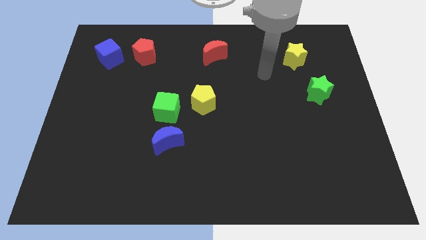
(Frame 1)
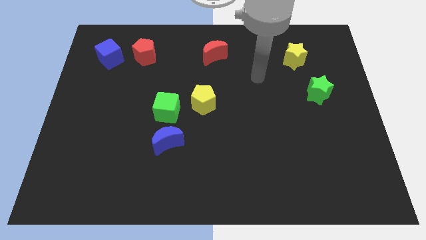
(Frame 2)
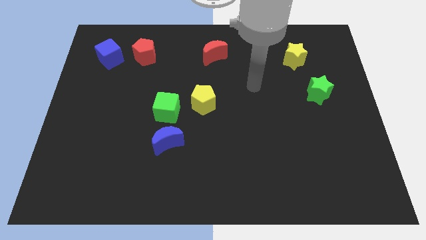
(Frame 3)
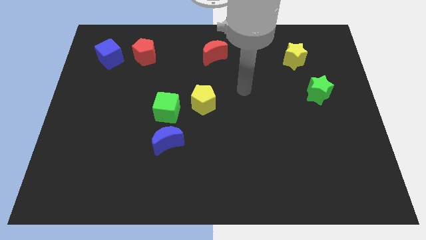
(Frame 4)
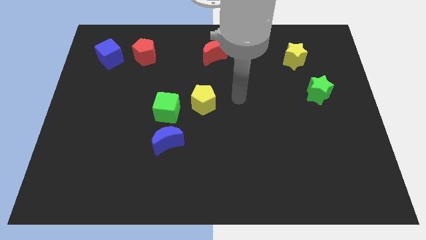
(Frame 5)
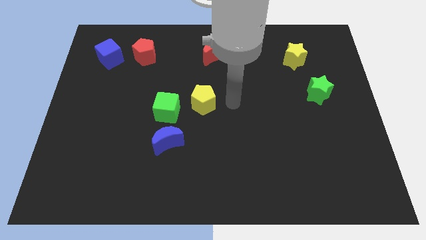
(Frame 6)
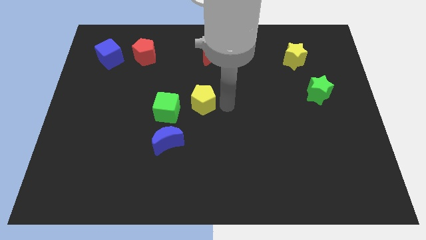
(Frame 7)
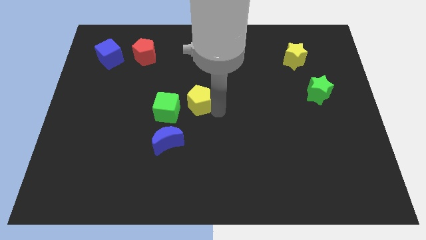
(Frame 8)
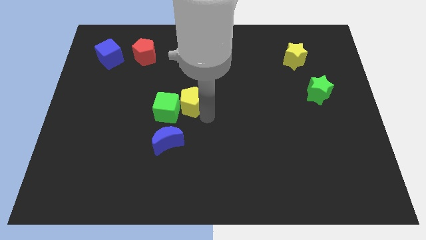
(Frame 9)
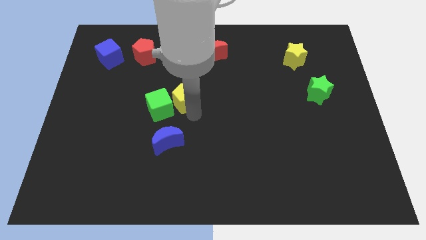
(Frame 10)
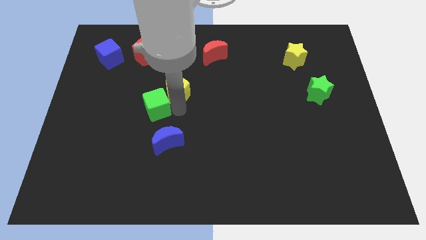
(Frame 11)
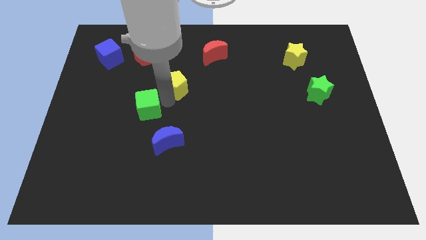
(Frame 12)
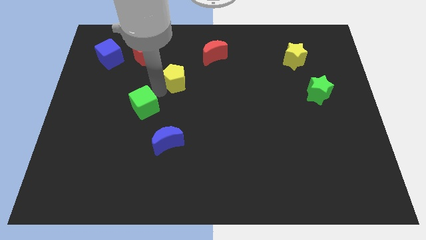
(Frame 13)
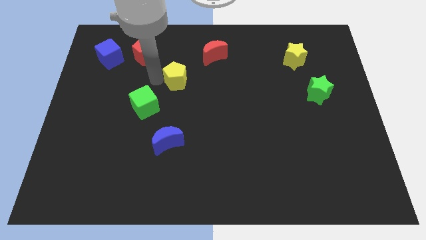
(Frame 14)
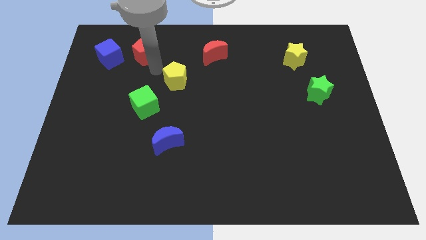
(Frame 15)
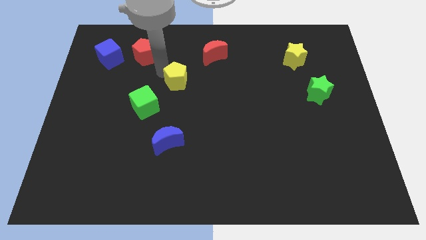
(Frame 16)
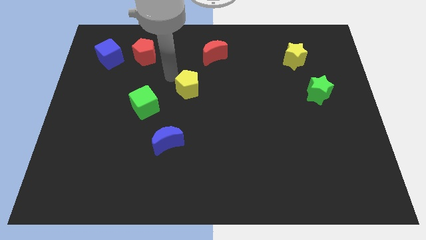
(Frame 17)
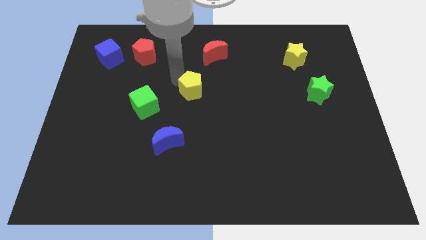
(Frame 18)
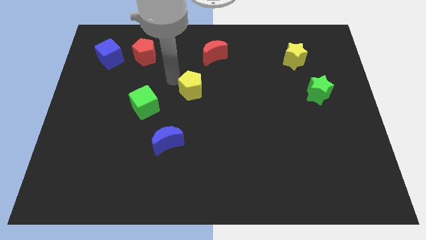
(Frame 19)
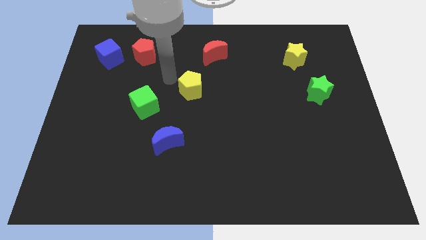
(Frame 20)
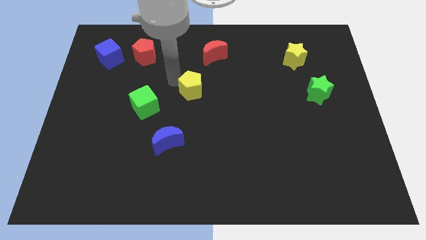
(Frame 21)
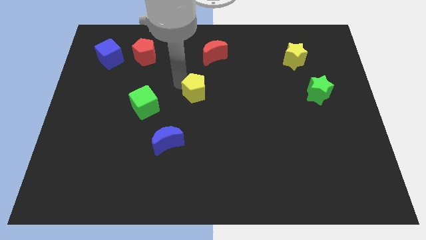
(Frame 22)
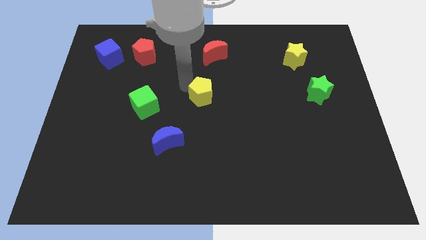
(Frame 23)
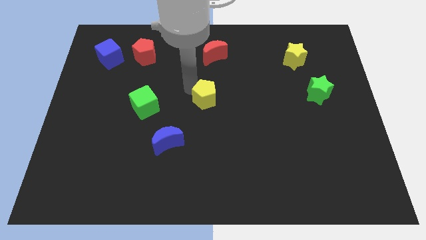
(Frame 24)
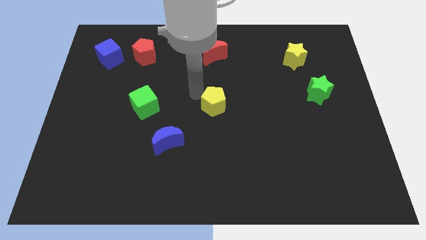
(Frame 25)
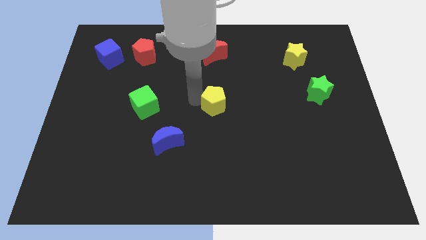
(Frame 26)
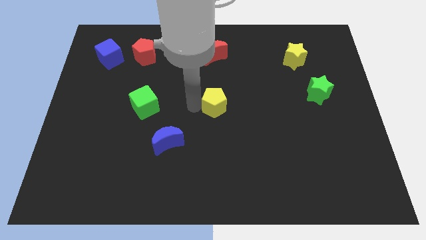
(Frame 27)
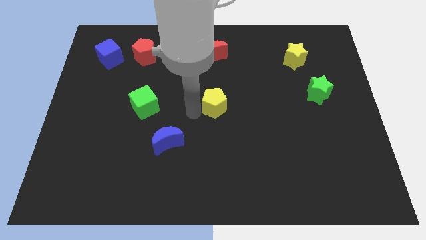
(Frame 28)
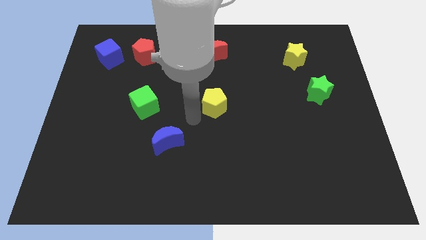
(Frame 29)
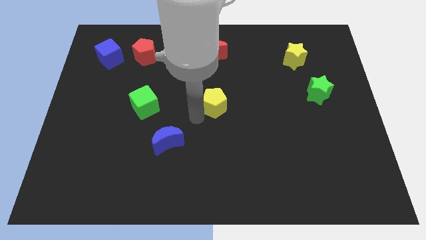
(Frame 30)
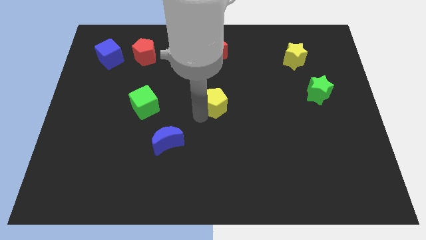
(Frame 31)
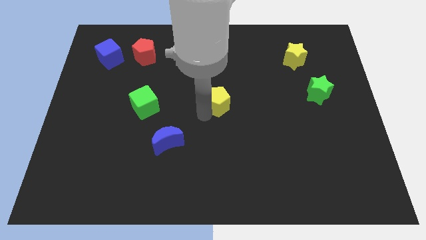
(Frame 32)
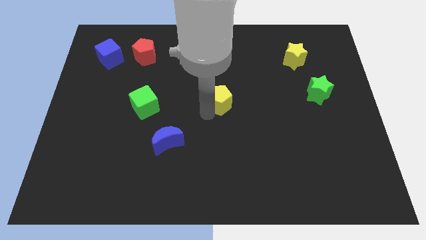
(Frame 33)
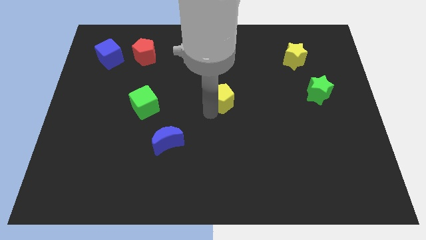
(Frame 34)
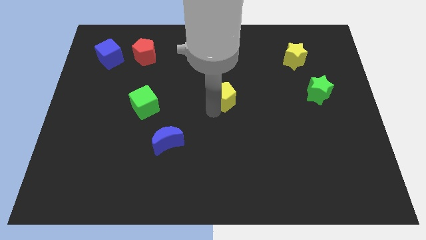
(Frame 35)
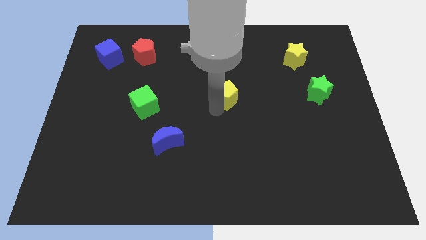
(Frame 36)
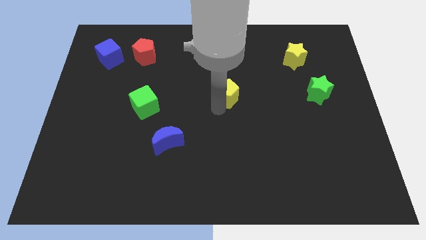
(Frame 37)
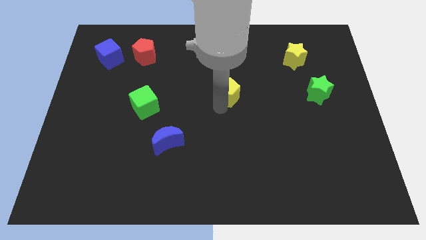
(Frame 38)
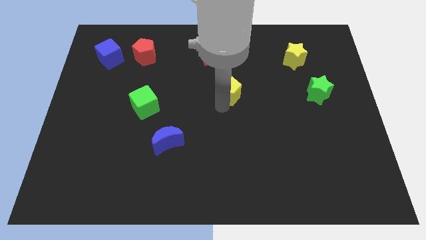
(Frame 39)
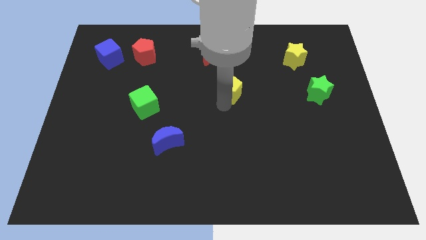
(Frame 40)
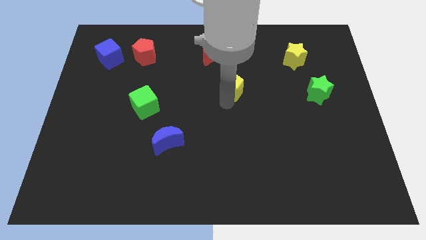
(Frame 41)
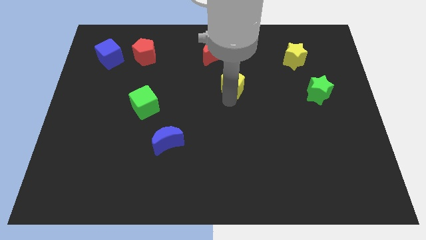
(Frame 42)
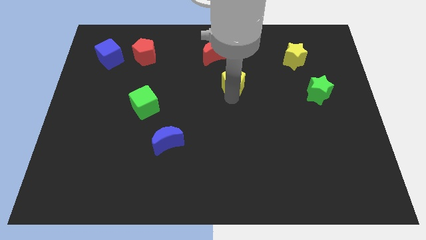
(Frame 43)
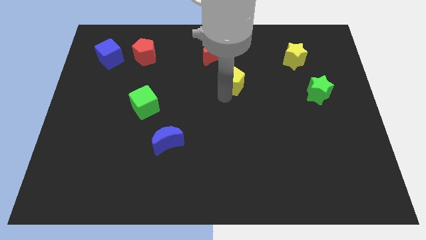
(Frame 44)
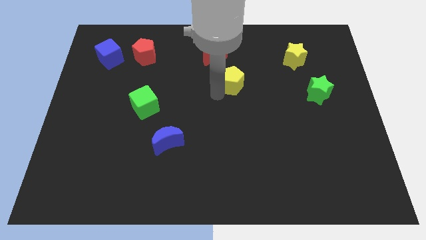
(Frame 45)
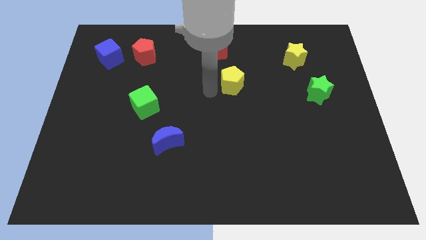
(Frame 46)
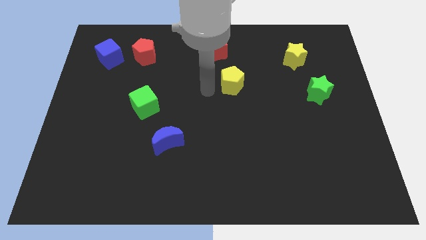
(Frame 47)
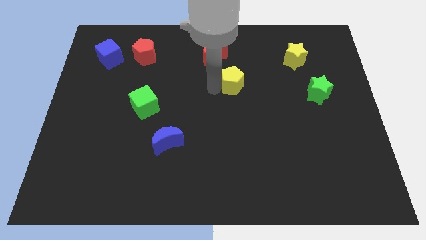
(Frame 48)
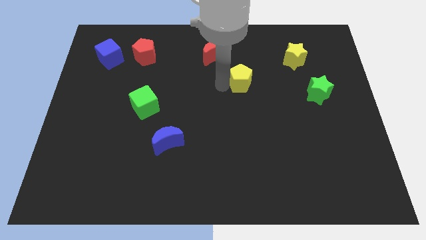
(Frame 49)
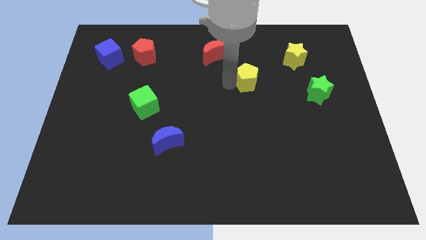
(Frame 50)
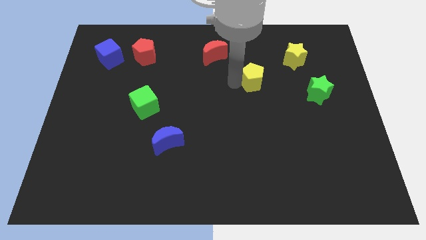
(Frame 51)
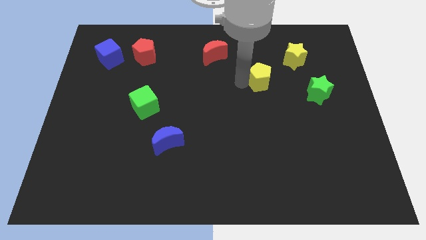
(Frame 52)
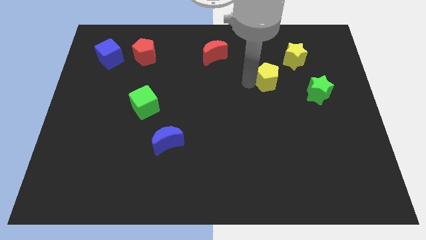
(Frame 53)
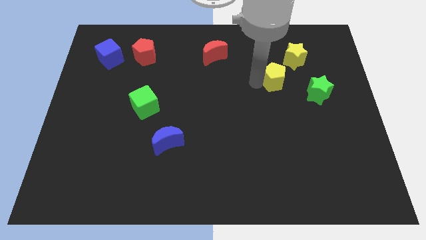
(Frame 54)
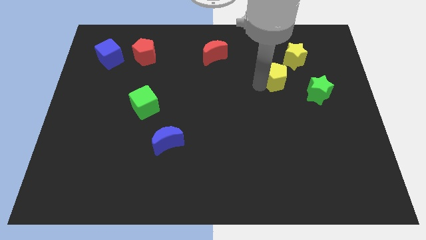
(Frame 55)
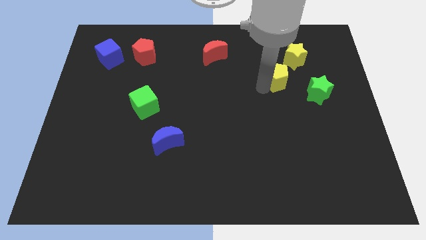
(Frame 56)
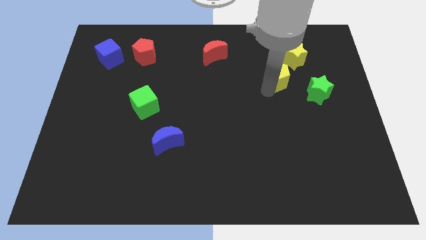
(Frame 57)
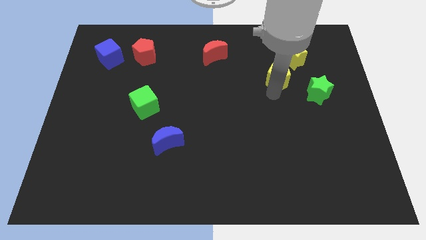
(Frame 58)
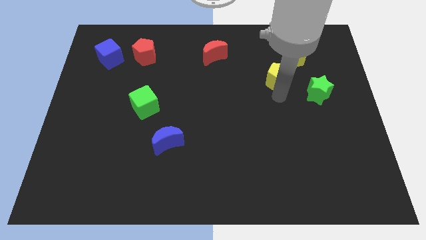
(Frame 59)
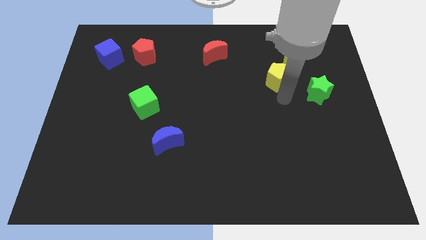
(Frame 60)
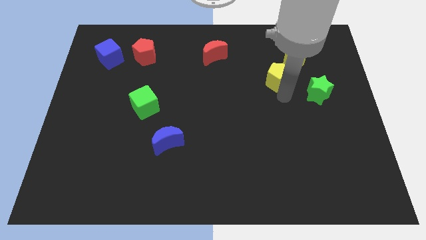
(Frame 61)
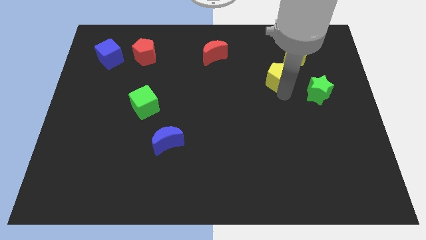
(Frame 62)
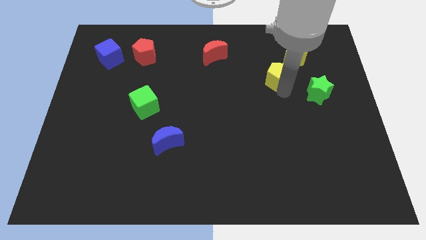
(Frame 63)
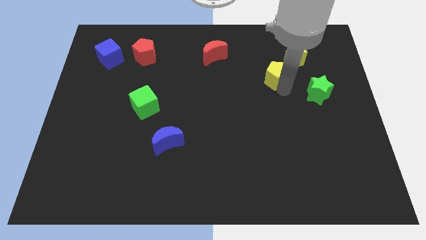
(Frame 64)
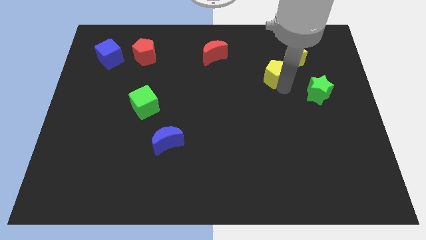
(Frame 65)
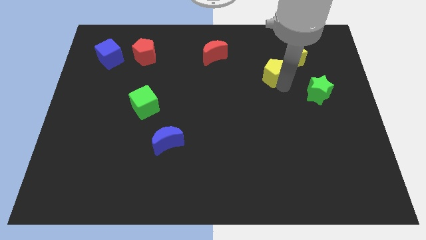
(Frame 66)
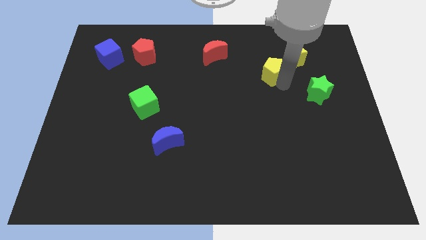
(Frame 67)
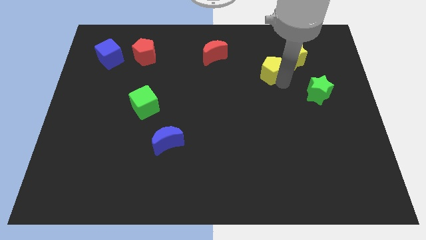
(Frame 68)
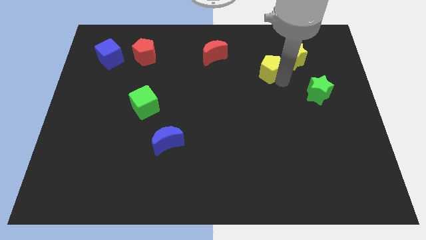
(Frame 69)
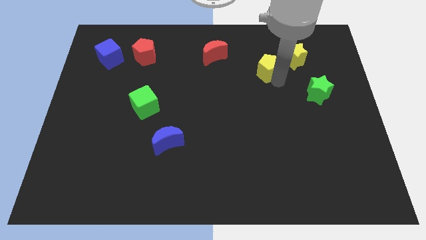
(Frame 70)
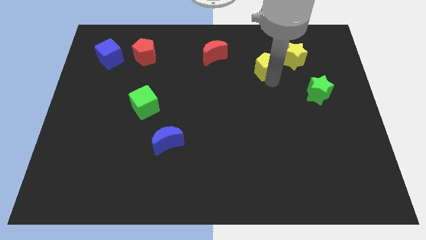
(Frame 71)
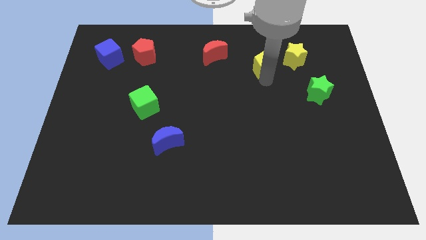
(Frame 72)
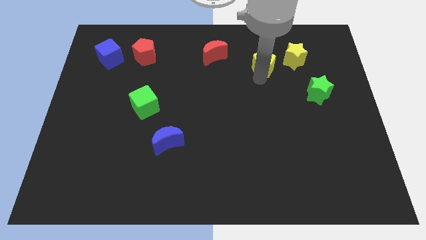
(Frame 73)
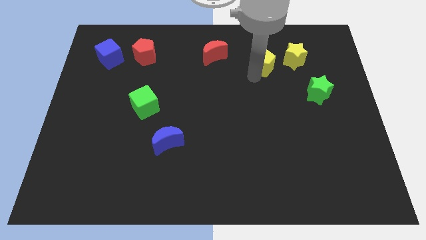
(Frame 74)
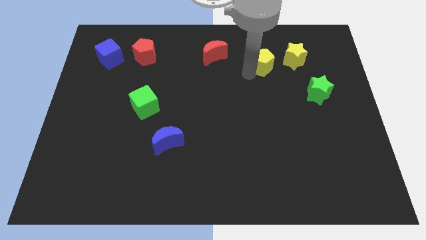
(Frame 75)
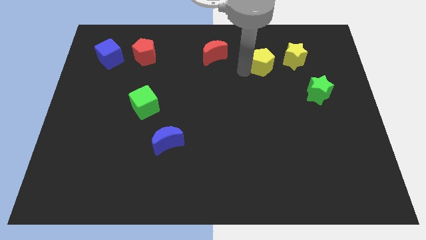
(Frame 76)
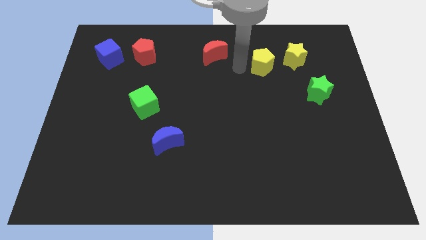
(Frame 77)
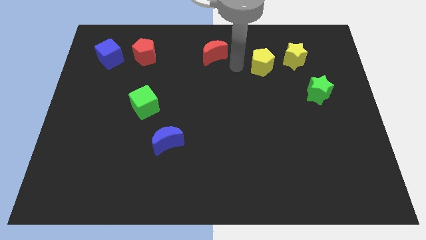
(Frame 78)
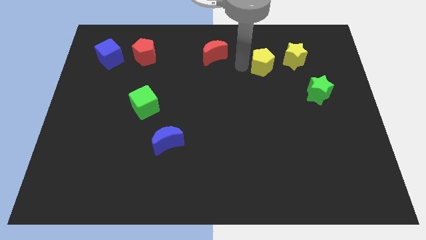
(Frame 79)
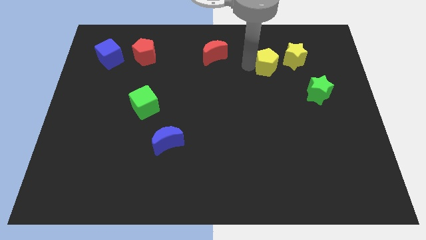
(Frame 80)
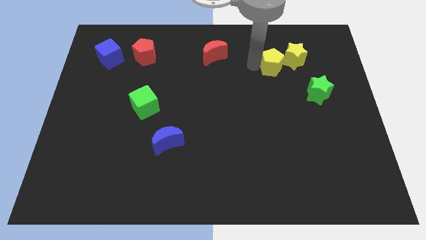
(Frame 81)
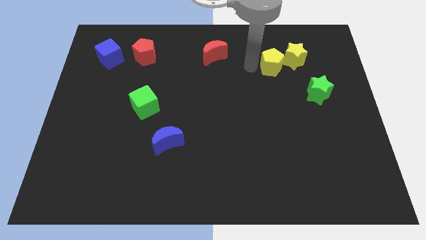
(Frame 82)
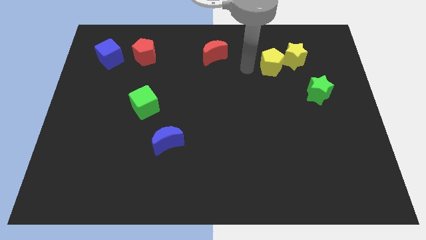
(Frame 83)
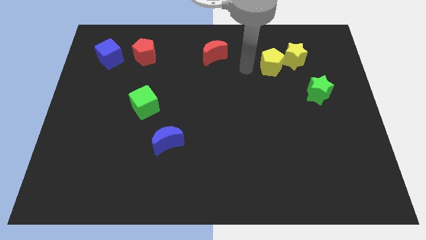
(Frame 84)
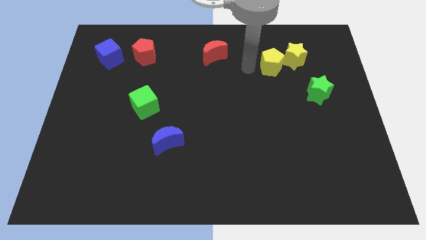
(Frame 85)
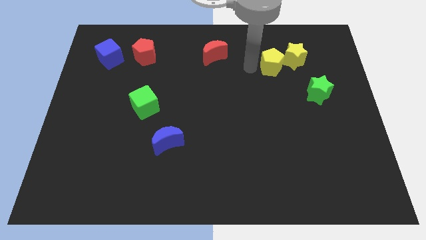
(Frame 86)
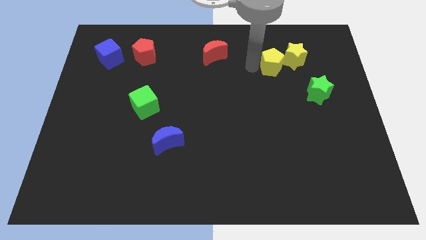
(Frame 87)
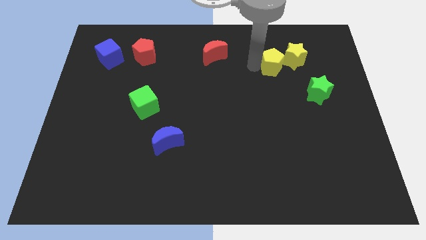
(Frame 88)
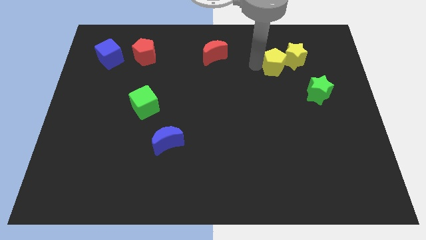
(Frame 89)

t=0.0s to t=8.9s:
push the yellow pentagon next to the yellow star
